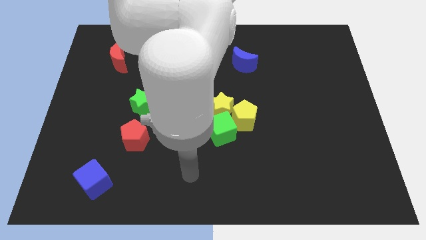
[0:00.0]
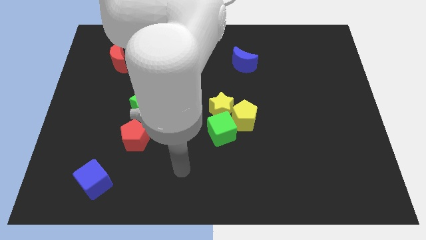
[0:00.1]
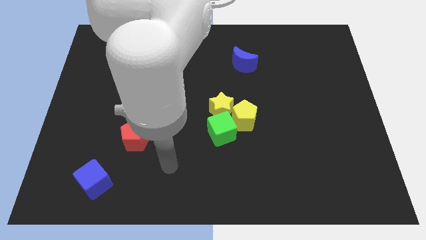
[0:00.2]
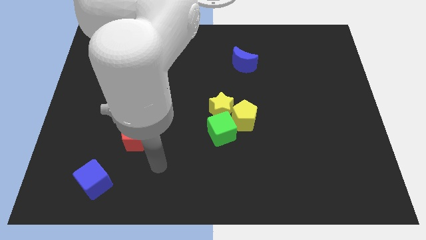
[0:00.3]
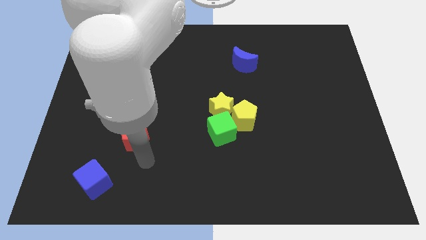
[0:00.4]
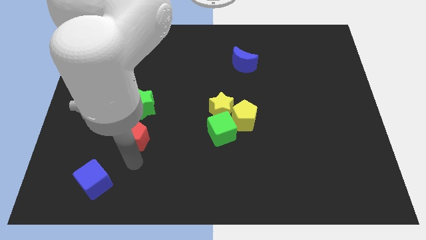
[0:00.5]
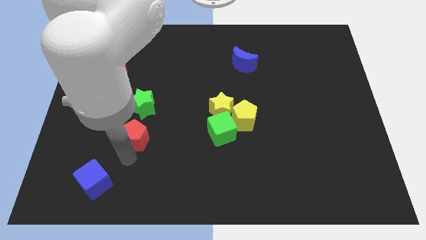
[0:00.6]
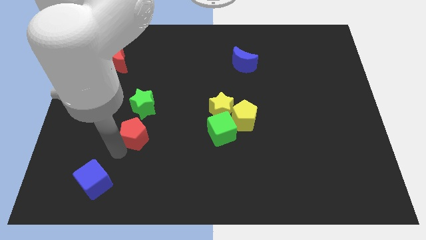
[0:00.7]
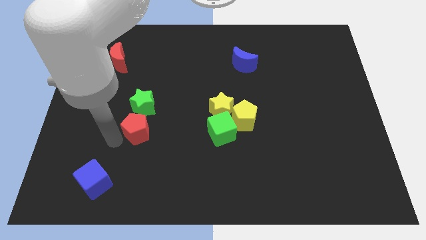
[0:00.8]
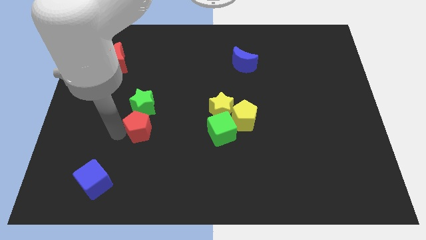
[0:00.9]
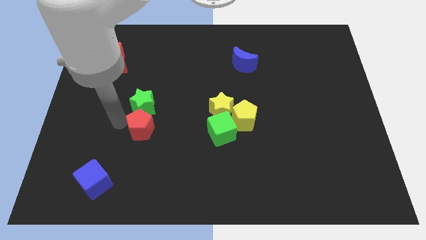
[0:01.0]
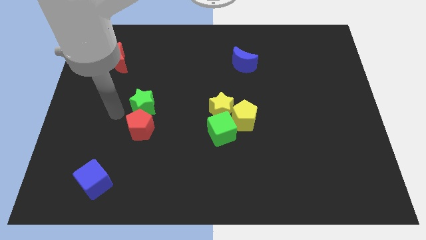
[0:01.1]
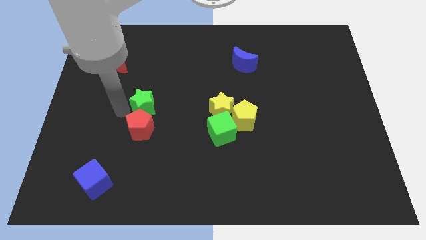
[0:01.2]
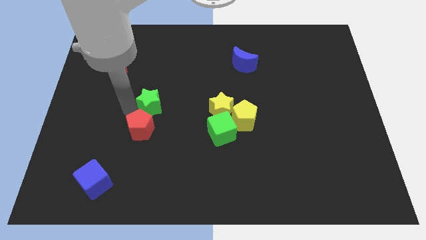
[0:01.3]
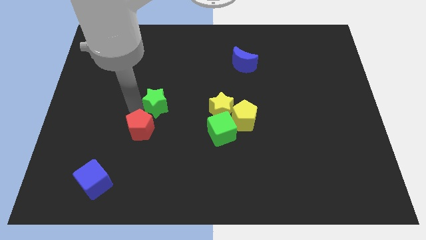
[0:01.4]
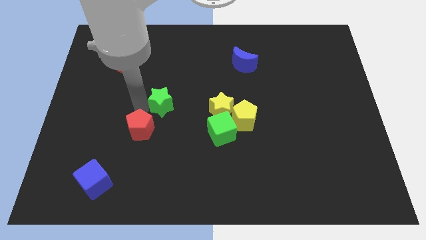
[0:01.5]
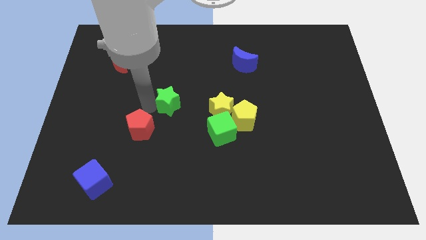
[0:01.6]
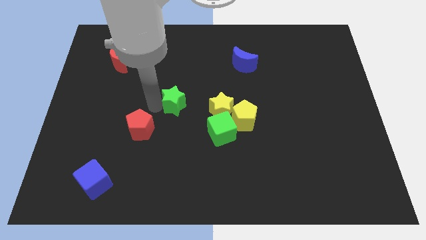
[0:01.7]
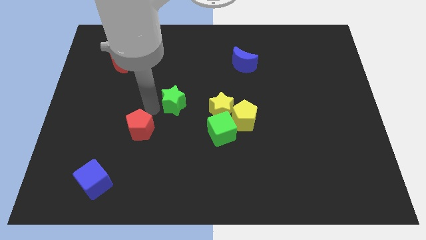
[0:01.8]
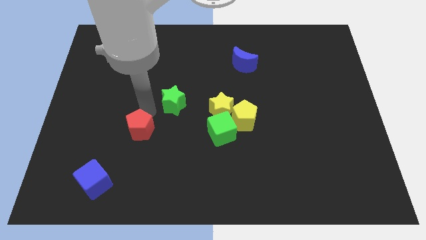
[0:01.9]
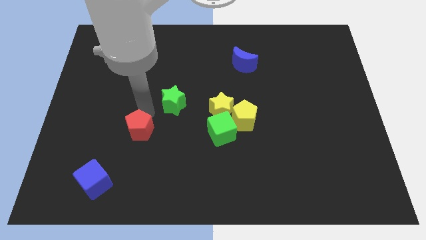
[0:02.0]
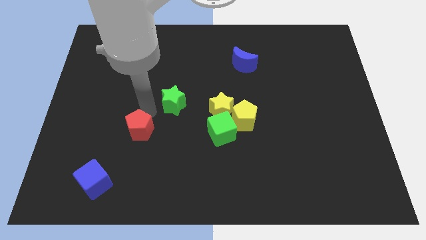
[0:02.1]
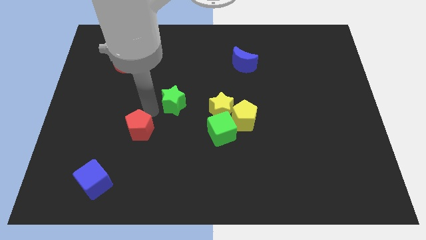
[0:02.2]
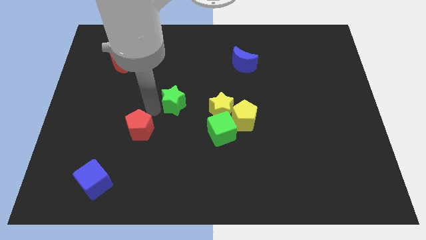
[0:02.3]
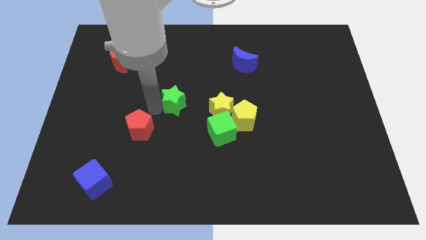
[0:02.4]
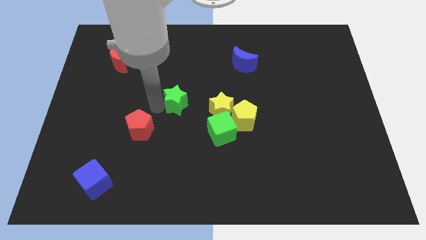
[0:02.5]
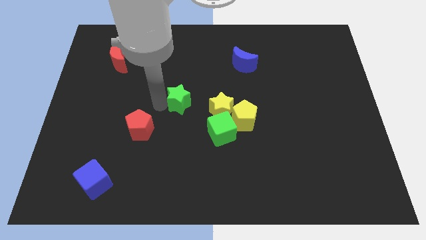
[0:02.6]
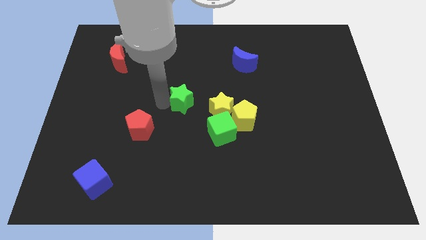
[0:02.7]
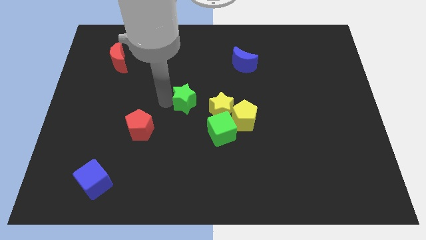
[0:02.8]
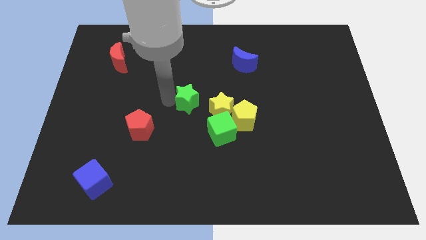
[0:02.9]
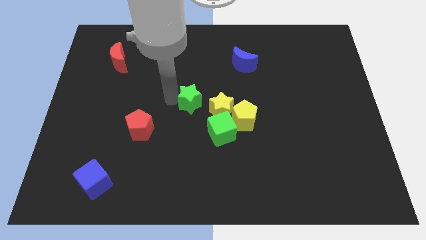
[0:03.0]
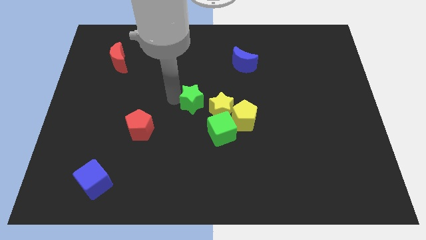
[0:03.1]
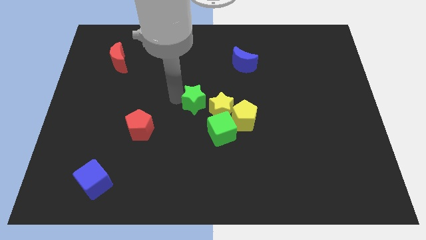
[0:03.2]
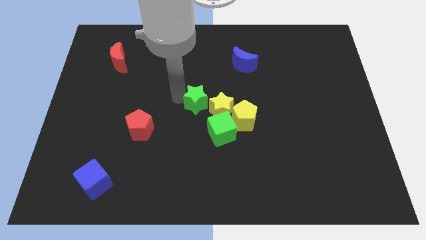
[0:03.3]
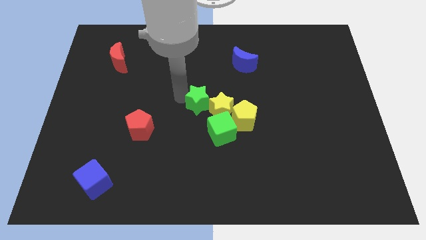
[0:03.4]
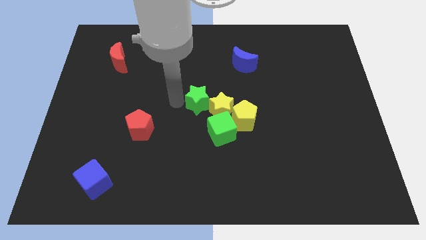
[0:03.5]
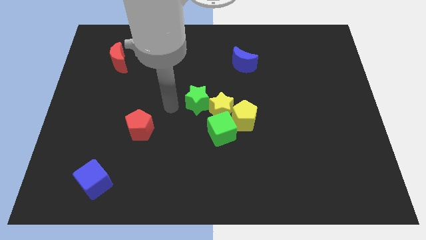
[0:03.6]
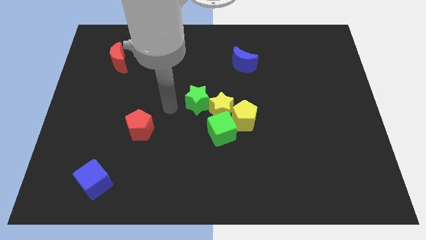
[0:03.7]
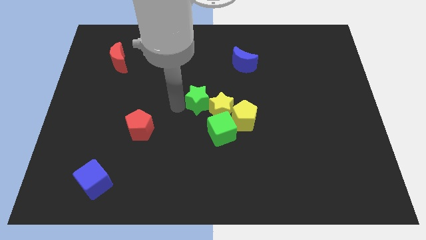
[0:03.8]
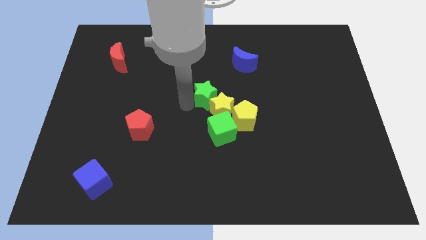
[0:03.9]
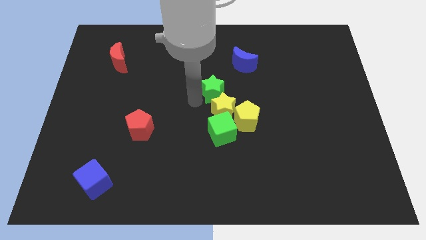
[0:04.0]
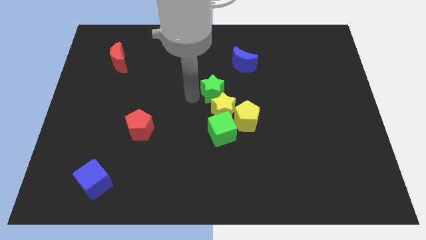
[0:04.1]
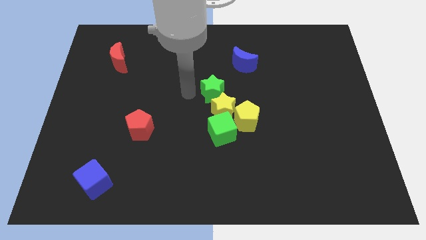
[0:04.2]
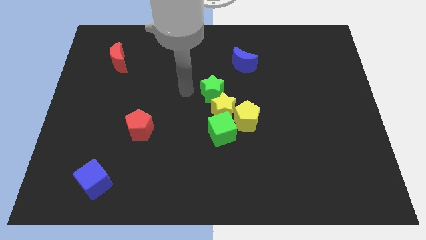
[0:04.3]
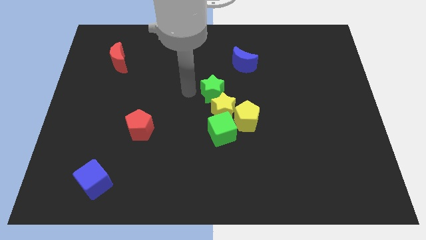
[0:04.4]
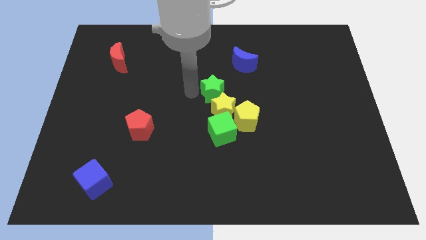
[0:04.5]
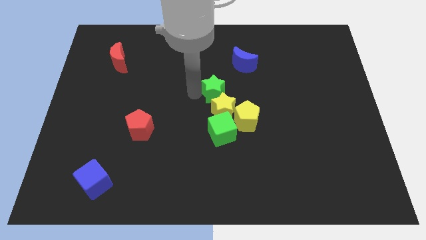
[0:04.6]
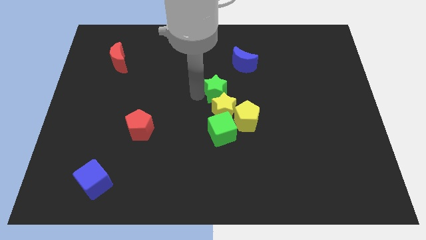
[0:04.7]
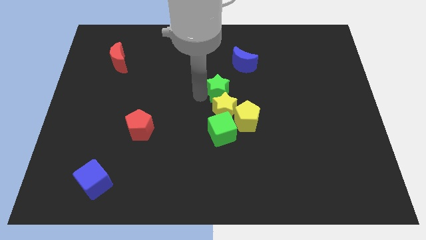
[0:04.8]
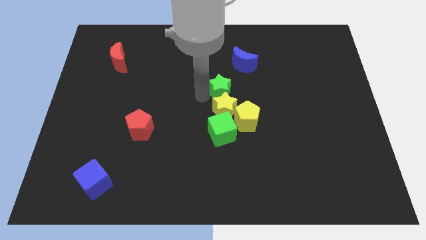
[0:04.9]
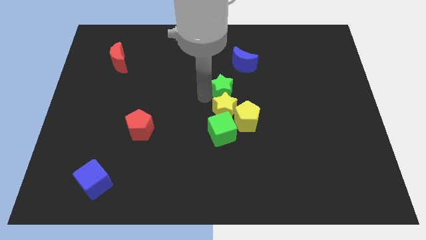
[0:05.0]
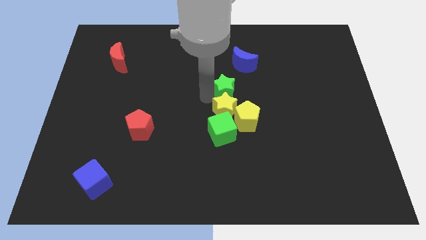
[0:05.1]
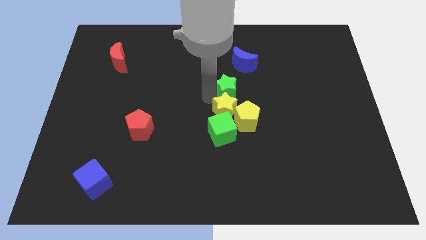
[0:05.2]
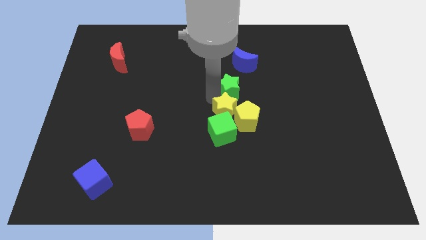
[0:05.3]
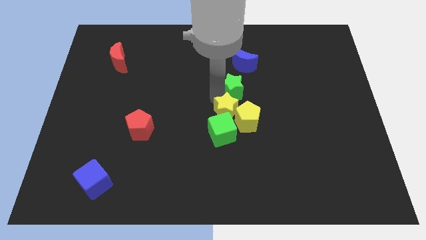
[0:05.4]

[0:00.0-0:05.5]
move the green star right

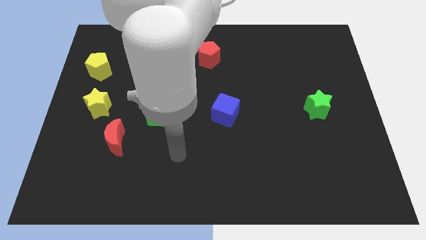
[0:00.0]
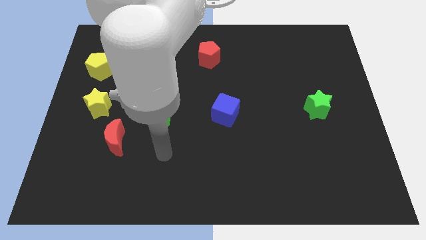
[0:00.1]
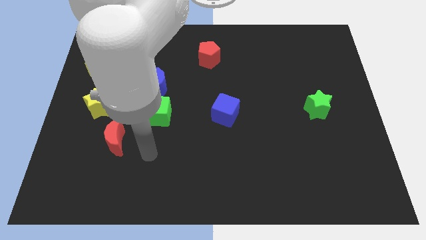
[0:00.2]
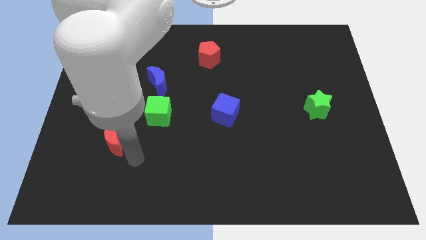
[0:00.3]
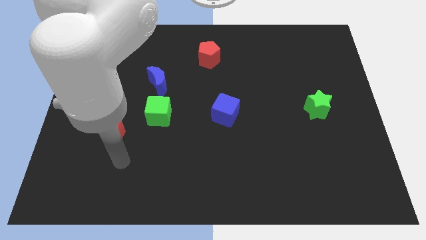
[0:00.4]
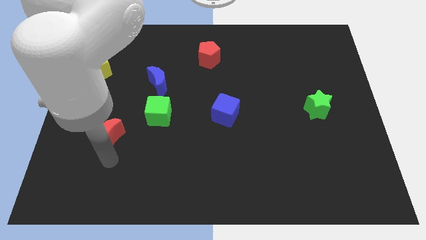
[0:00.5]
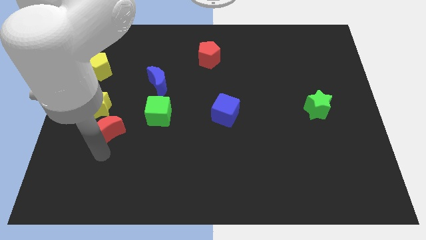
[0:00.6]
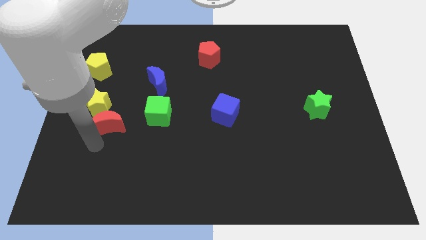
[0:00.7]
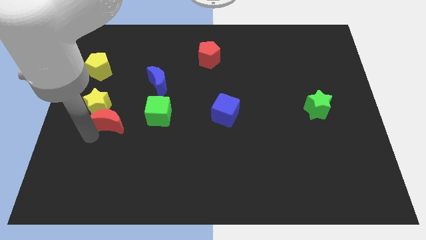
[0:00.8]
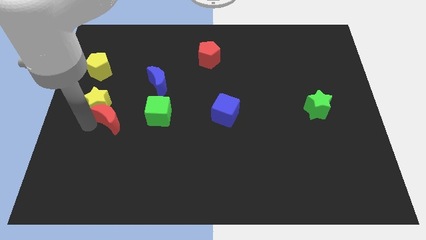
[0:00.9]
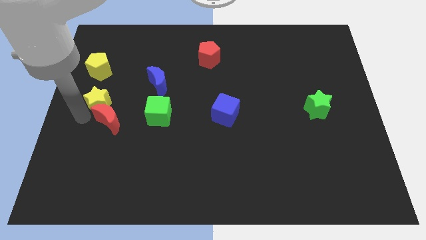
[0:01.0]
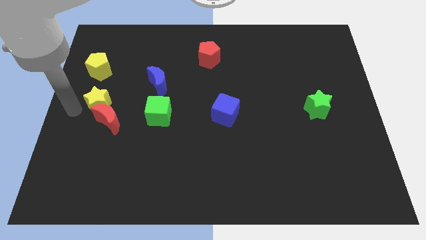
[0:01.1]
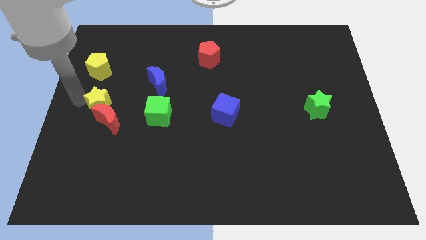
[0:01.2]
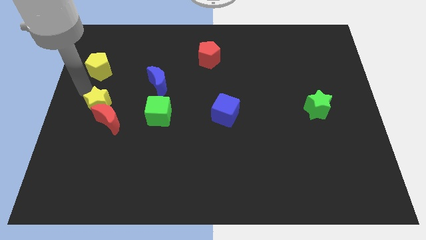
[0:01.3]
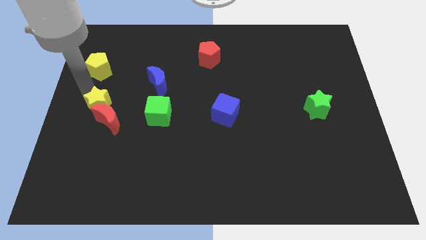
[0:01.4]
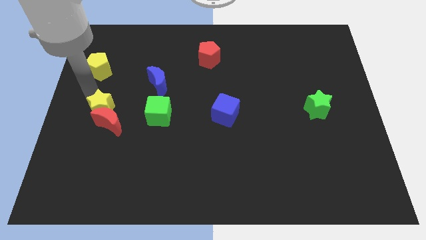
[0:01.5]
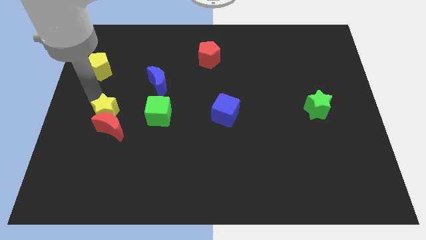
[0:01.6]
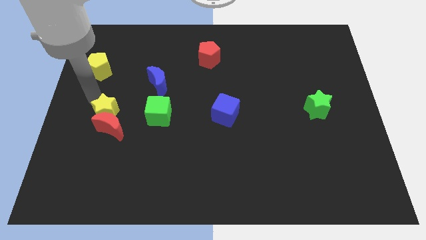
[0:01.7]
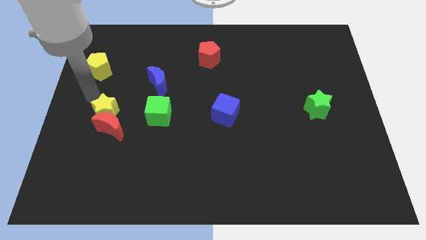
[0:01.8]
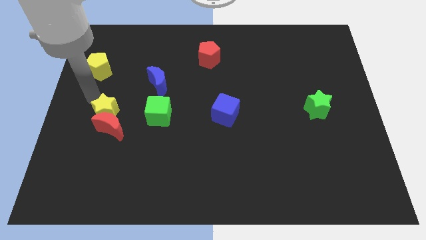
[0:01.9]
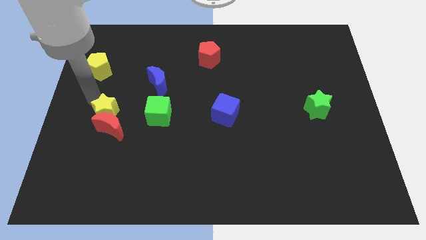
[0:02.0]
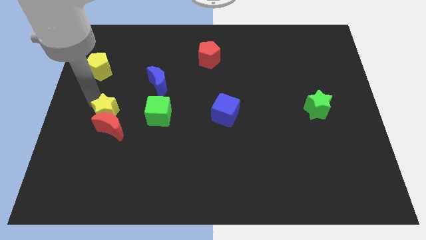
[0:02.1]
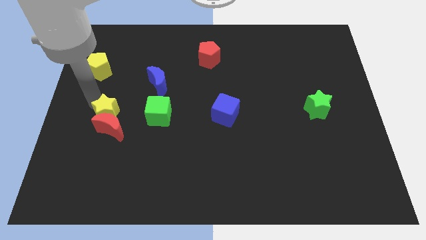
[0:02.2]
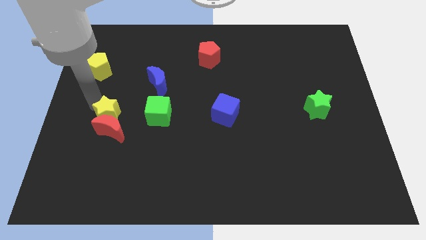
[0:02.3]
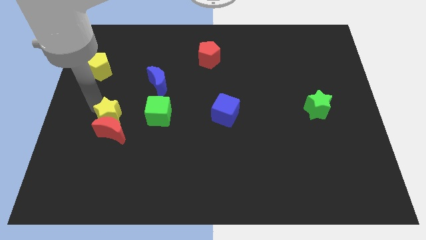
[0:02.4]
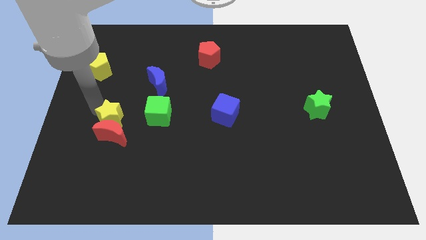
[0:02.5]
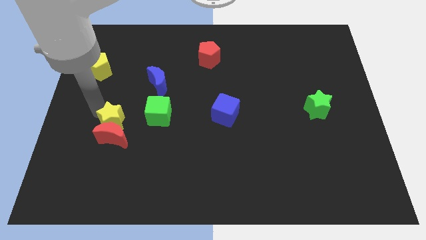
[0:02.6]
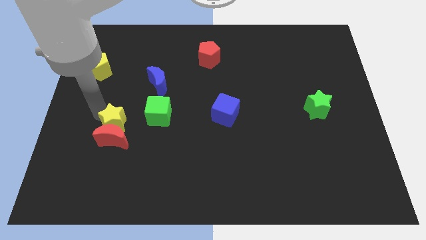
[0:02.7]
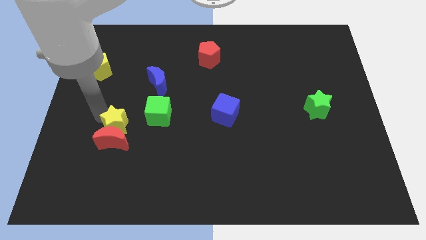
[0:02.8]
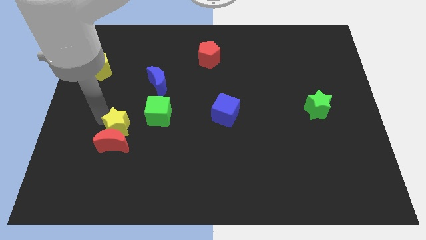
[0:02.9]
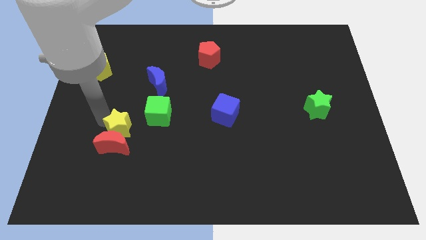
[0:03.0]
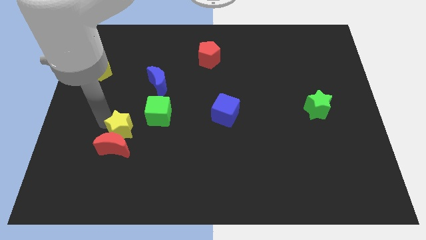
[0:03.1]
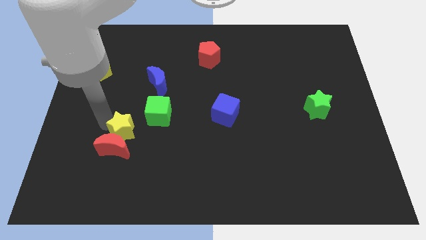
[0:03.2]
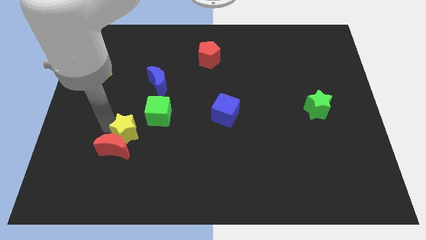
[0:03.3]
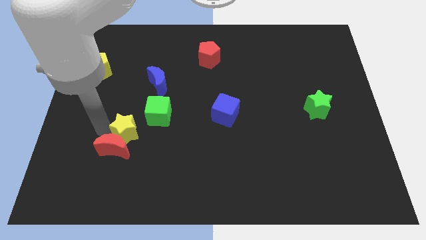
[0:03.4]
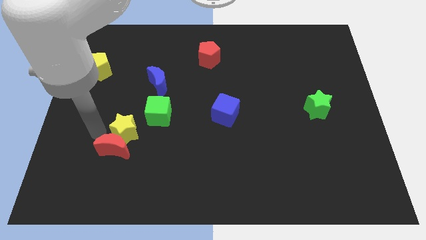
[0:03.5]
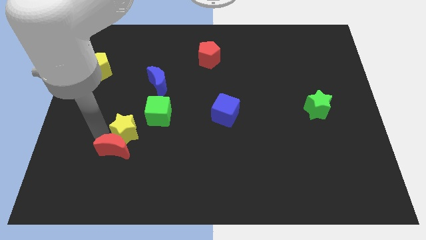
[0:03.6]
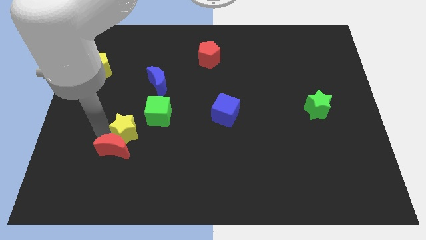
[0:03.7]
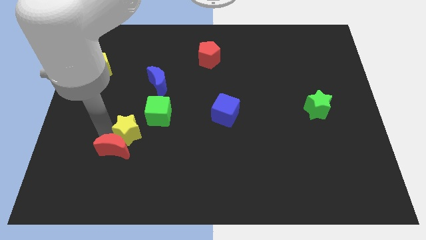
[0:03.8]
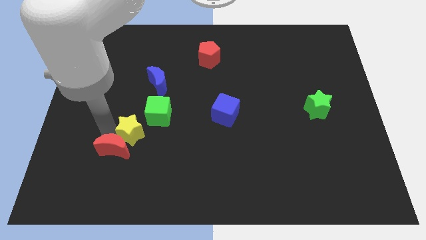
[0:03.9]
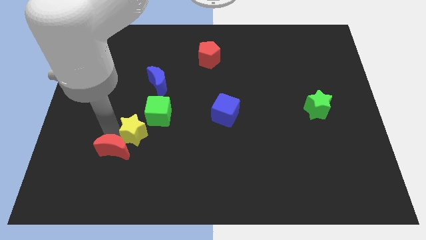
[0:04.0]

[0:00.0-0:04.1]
push the yellow star a bit to the right
